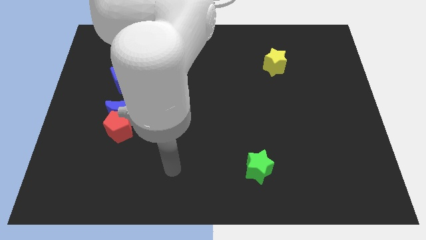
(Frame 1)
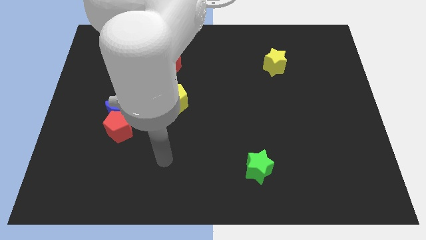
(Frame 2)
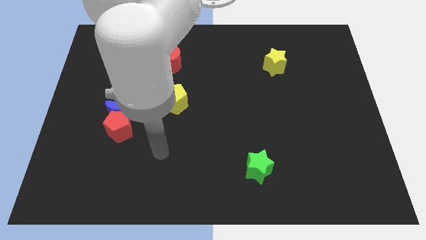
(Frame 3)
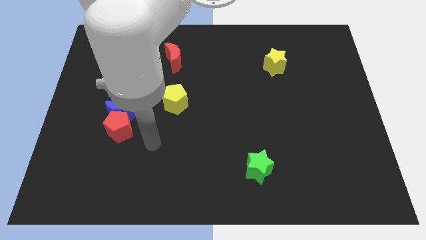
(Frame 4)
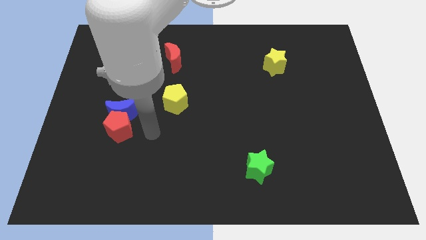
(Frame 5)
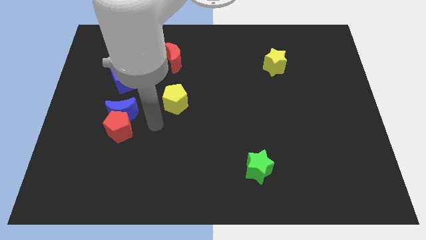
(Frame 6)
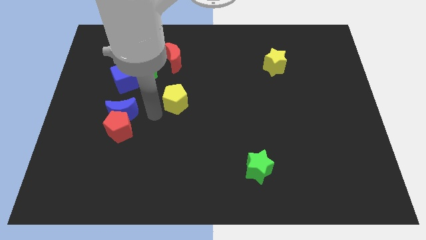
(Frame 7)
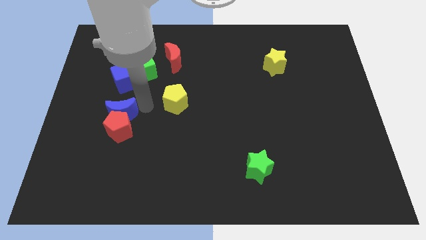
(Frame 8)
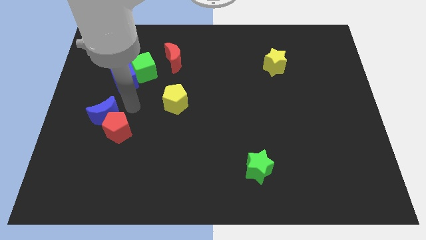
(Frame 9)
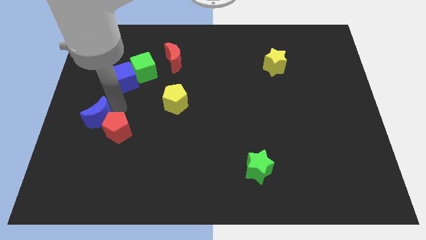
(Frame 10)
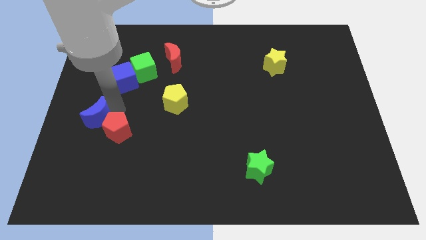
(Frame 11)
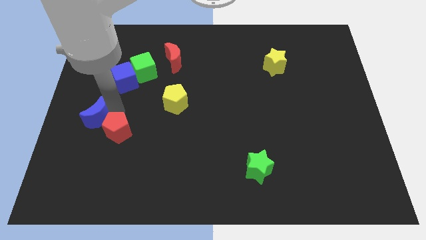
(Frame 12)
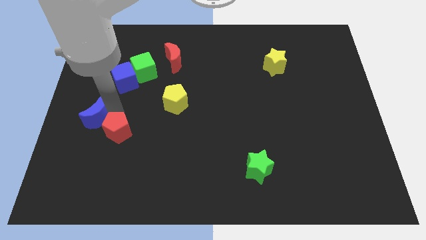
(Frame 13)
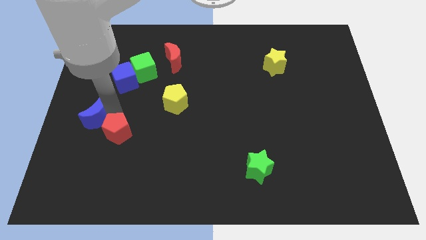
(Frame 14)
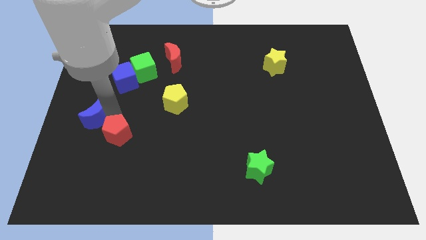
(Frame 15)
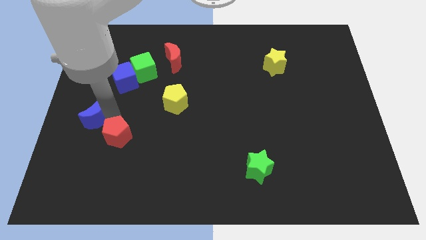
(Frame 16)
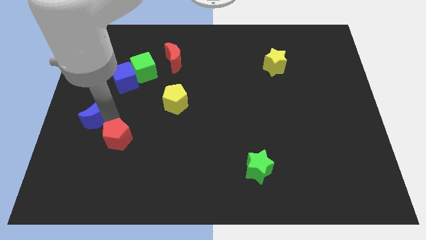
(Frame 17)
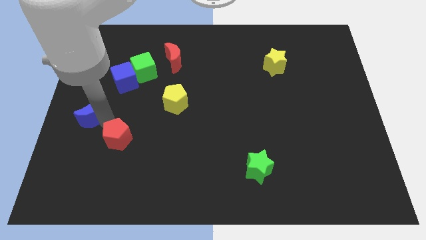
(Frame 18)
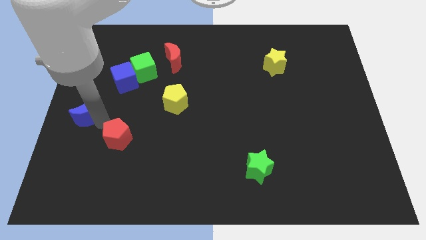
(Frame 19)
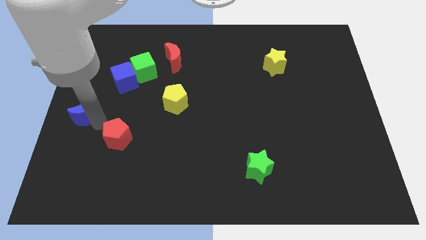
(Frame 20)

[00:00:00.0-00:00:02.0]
move the red pentagon away from the blue moon

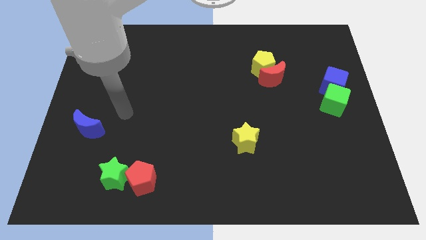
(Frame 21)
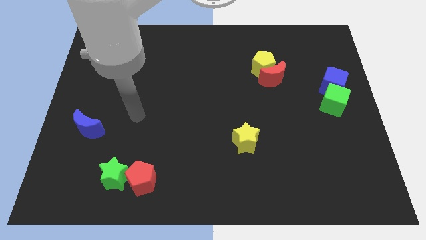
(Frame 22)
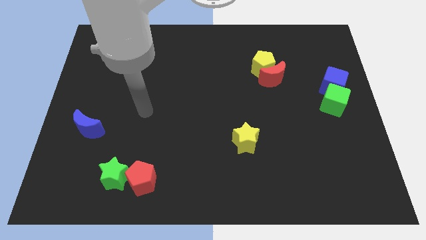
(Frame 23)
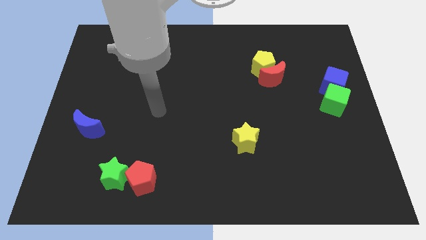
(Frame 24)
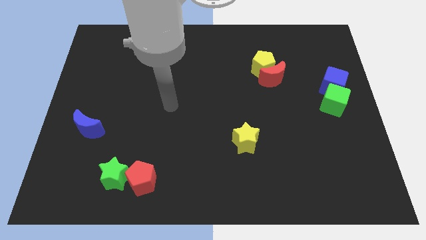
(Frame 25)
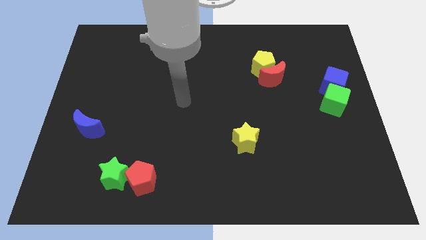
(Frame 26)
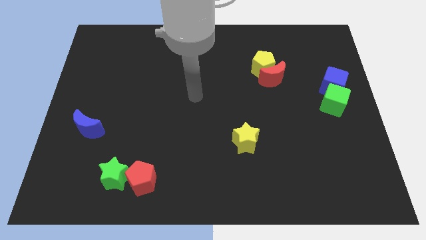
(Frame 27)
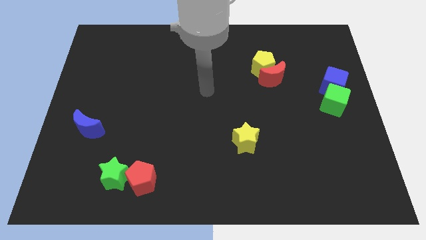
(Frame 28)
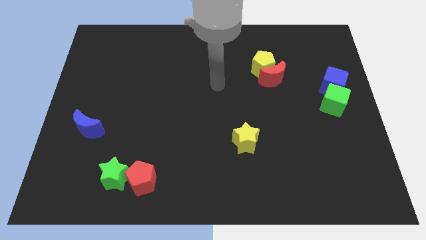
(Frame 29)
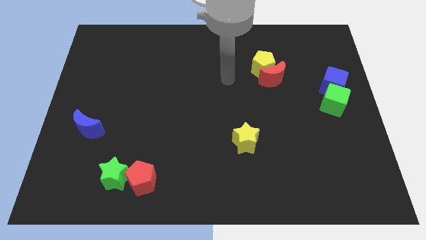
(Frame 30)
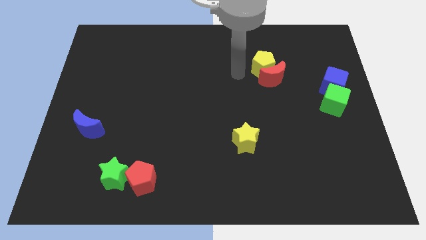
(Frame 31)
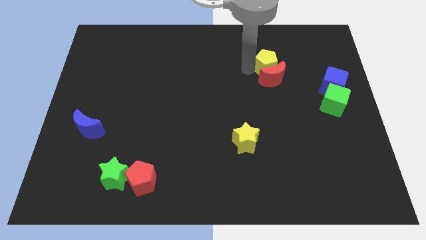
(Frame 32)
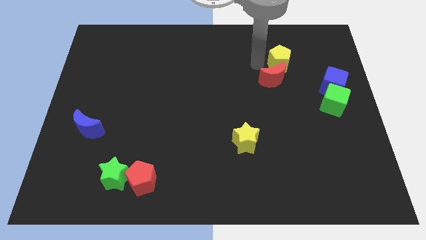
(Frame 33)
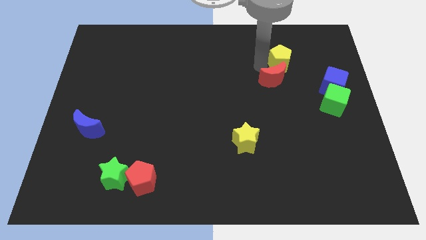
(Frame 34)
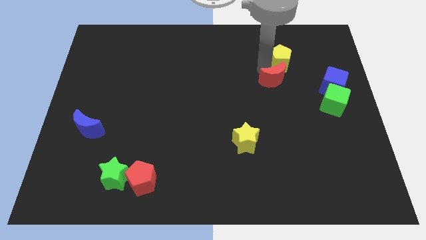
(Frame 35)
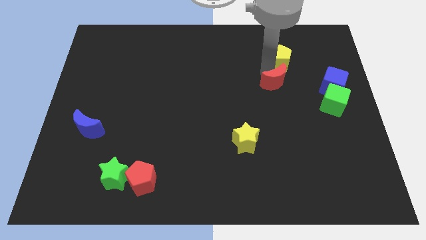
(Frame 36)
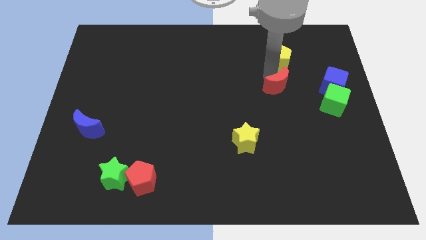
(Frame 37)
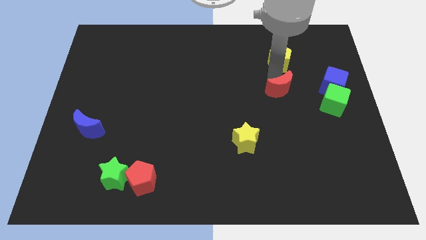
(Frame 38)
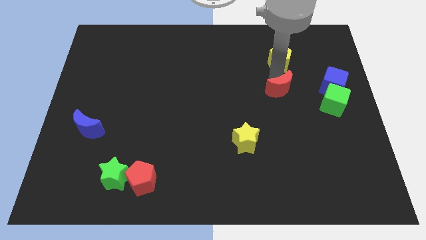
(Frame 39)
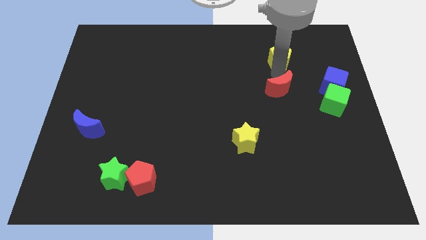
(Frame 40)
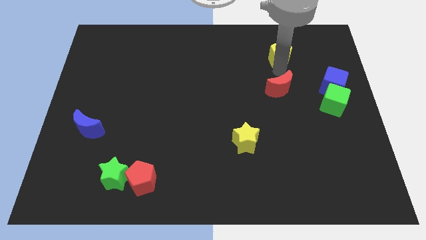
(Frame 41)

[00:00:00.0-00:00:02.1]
move the red moon away from the yellow pentagon

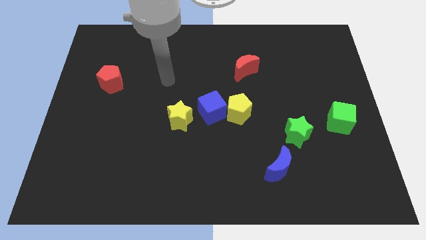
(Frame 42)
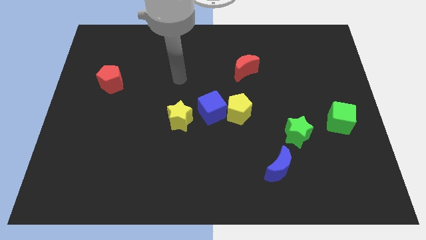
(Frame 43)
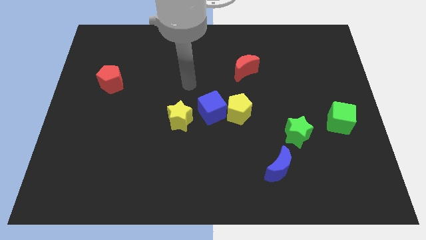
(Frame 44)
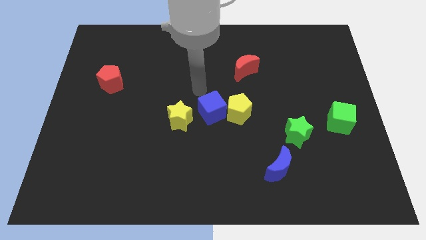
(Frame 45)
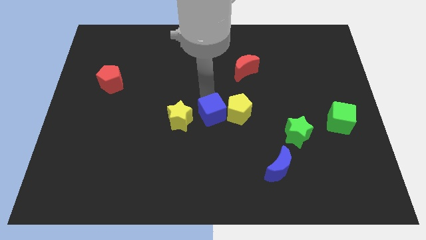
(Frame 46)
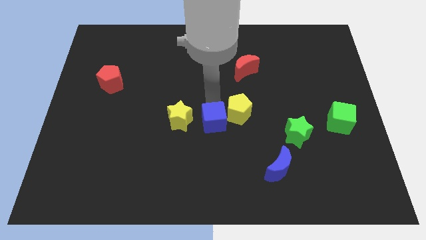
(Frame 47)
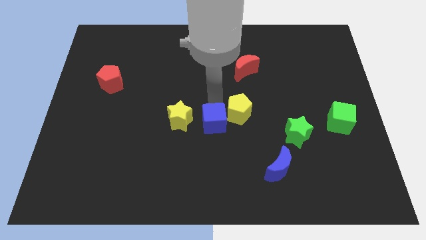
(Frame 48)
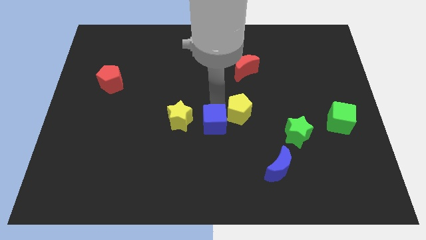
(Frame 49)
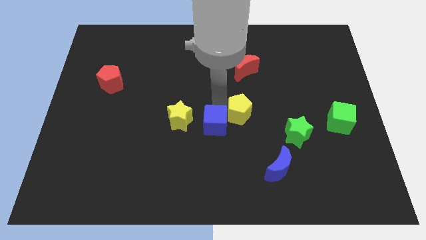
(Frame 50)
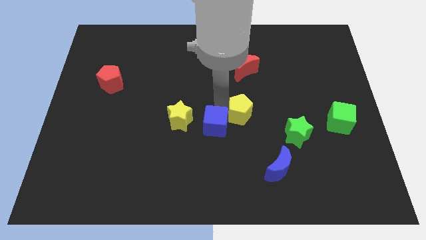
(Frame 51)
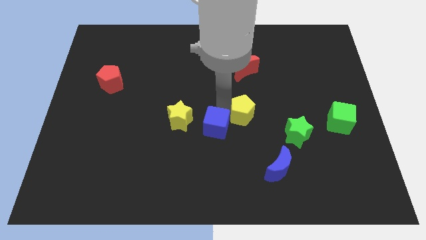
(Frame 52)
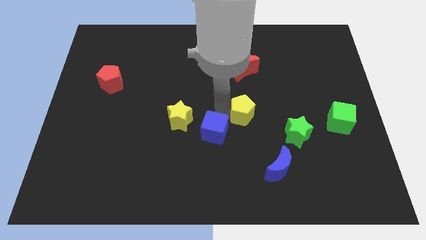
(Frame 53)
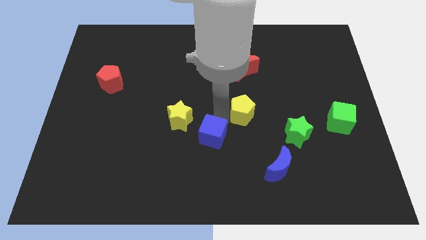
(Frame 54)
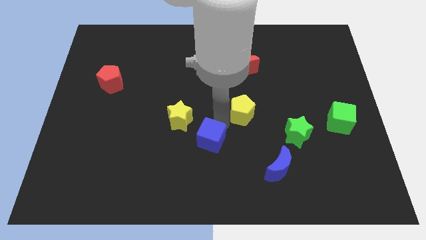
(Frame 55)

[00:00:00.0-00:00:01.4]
pull the yellow pentagon apart from the blue cube

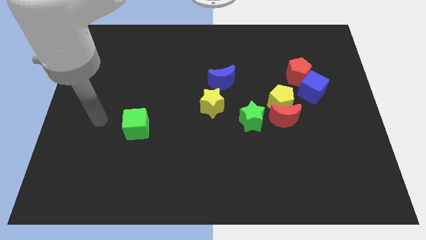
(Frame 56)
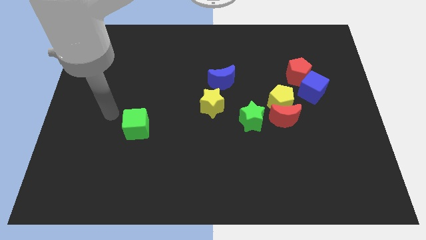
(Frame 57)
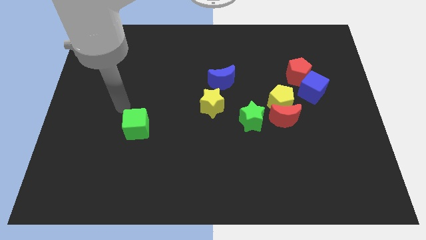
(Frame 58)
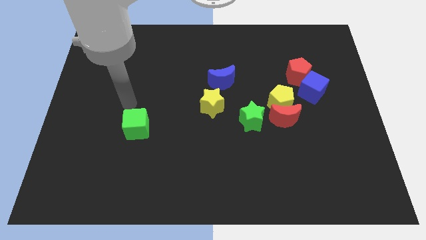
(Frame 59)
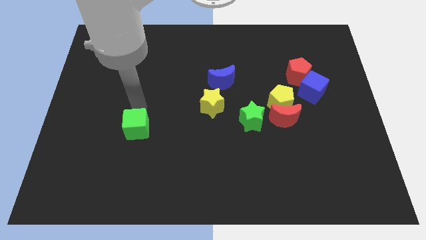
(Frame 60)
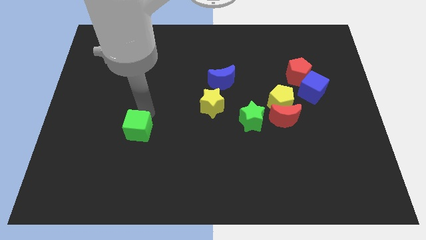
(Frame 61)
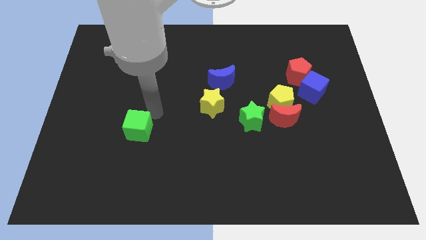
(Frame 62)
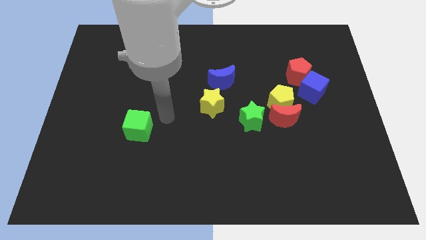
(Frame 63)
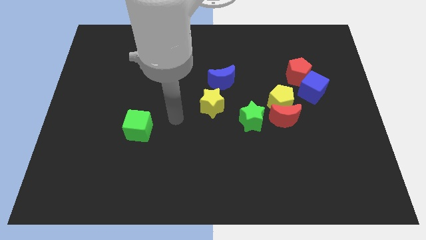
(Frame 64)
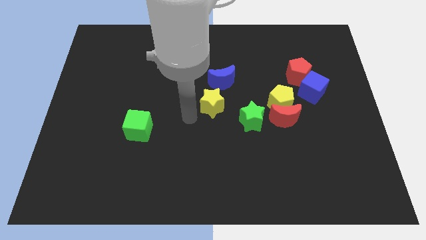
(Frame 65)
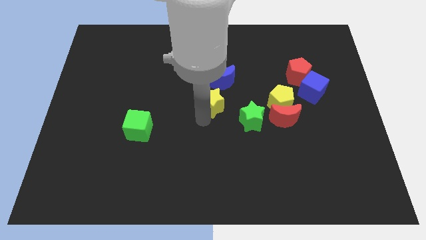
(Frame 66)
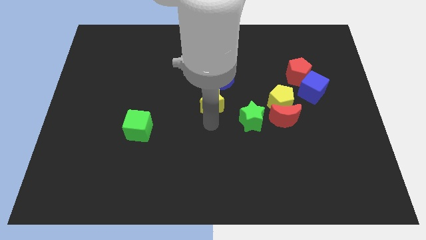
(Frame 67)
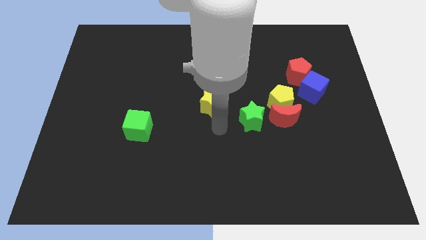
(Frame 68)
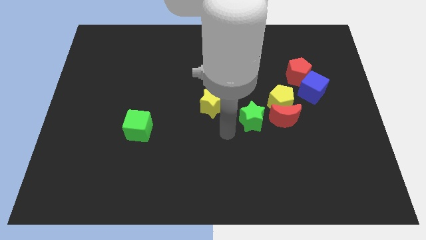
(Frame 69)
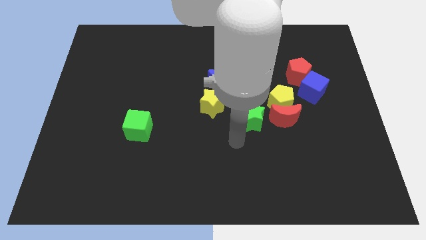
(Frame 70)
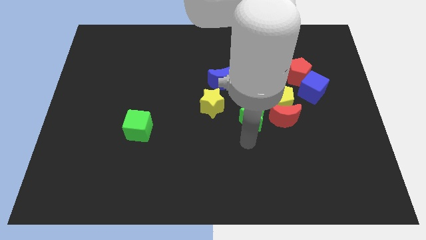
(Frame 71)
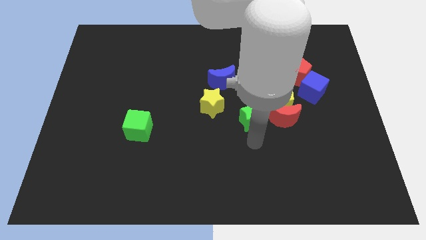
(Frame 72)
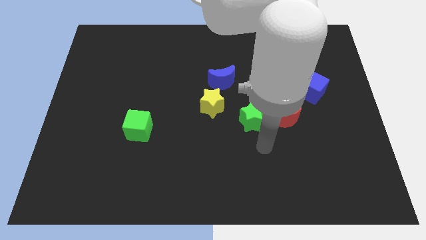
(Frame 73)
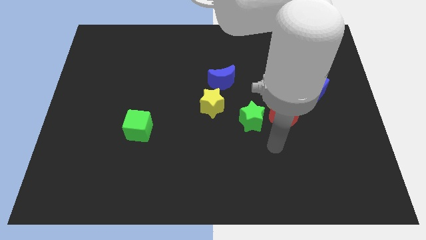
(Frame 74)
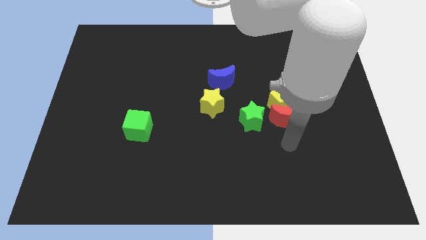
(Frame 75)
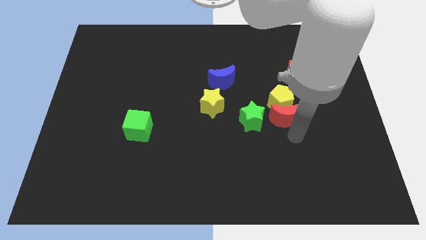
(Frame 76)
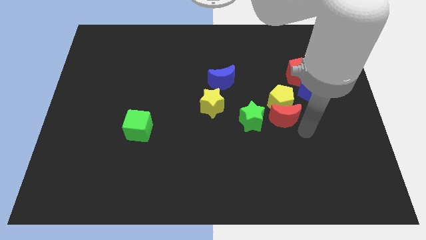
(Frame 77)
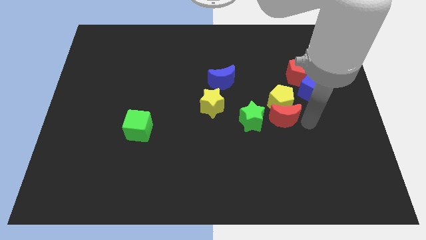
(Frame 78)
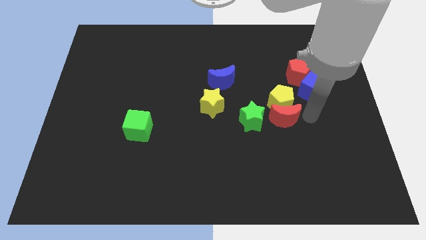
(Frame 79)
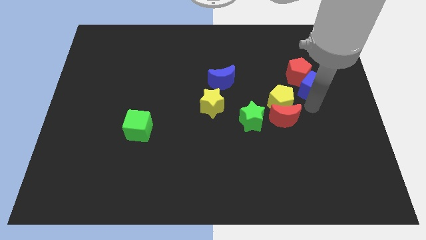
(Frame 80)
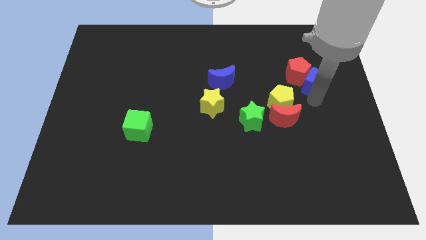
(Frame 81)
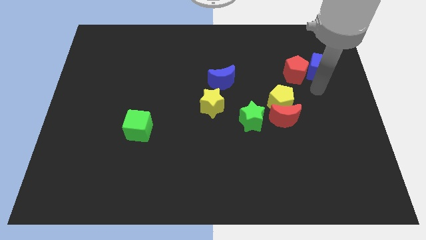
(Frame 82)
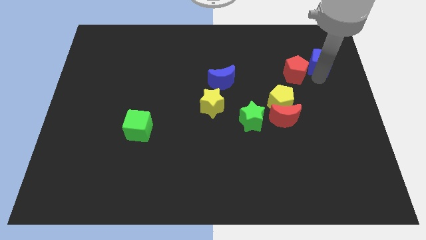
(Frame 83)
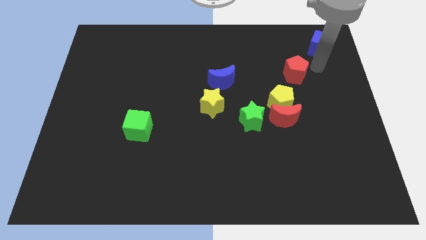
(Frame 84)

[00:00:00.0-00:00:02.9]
move the red pentagon away from the blue cube

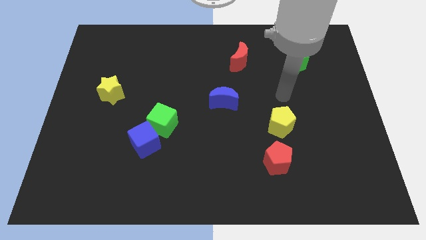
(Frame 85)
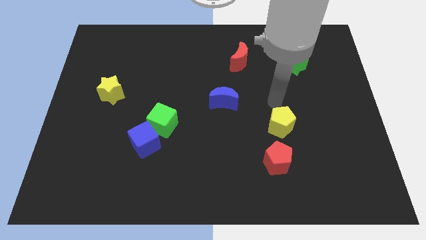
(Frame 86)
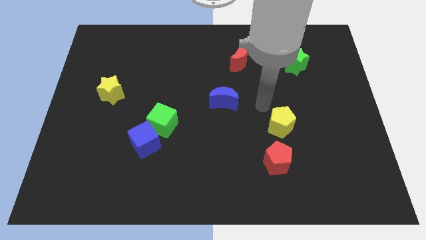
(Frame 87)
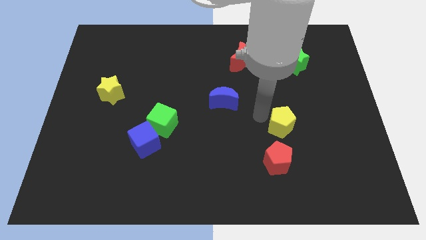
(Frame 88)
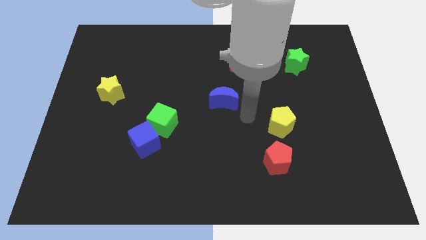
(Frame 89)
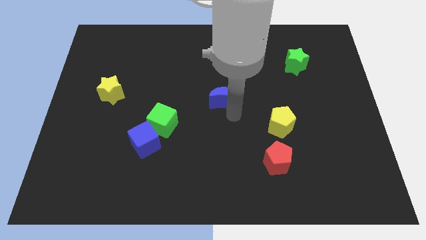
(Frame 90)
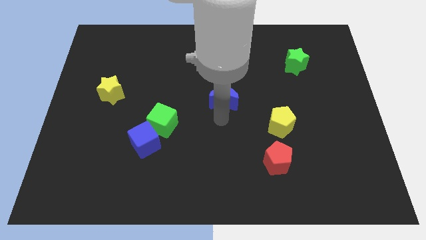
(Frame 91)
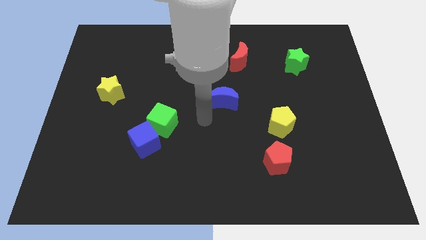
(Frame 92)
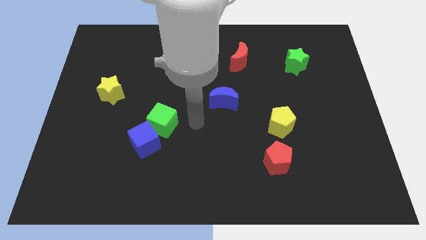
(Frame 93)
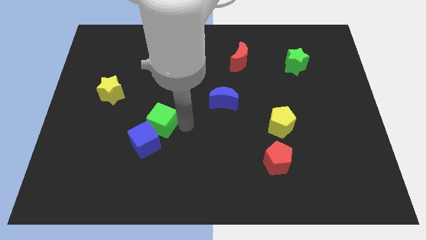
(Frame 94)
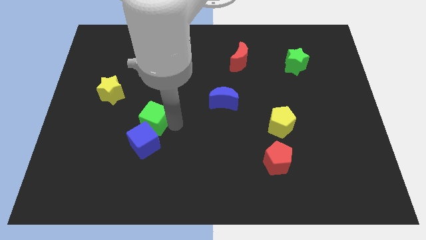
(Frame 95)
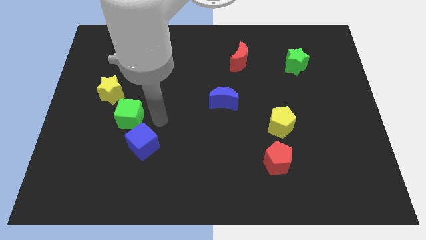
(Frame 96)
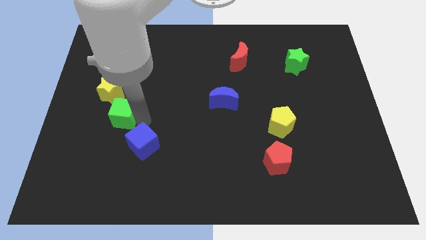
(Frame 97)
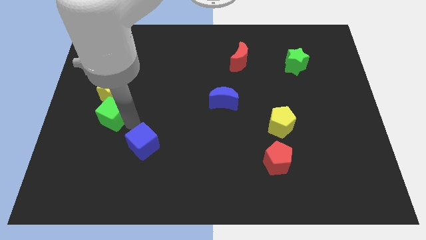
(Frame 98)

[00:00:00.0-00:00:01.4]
separate the blue cube from the green cube
